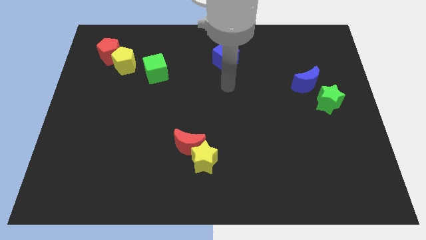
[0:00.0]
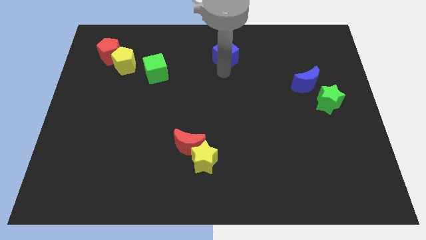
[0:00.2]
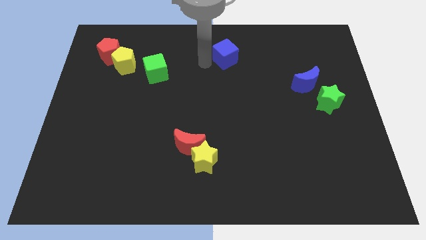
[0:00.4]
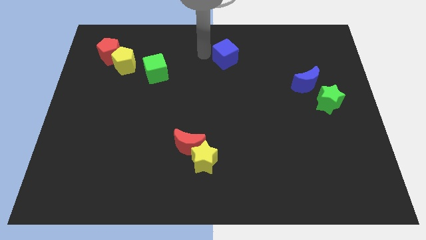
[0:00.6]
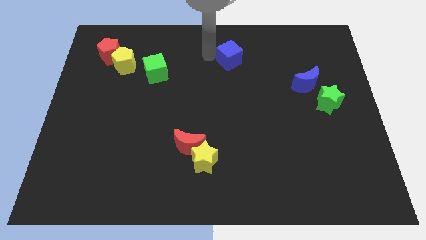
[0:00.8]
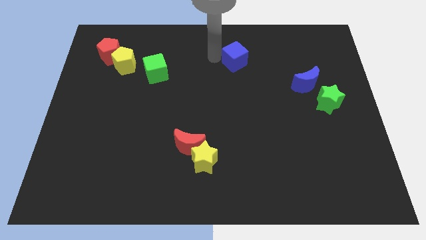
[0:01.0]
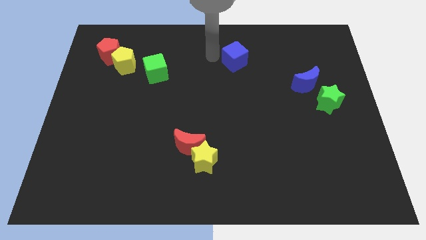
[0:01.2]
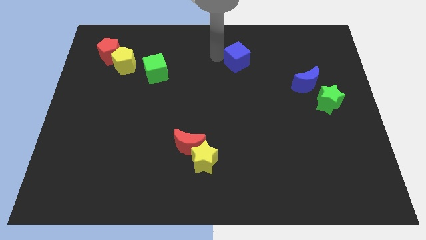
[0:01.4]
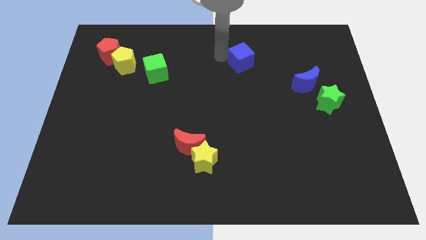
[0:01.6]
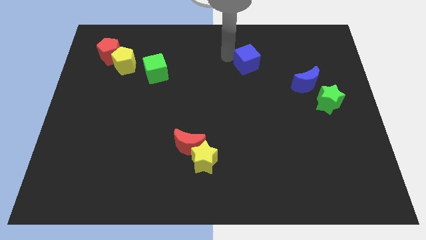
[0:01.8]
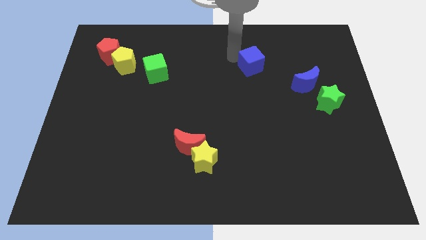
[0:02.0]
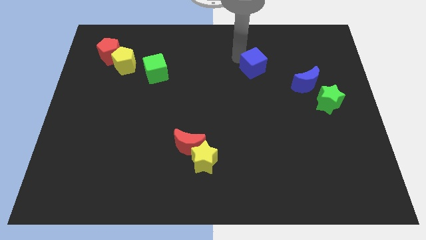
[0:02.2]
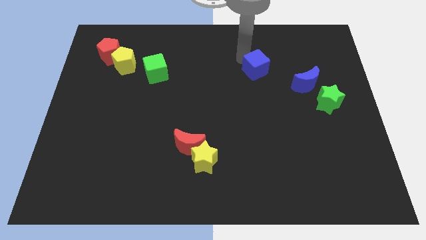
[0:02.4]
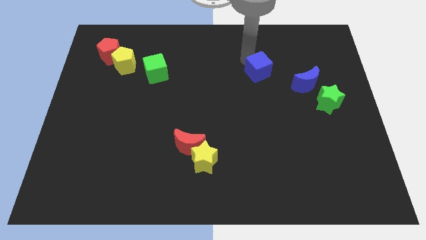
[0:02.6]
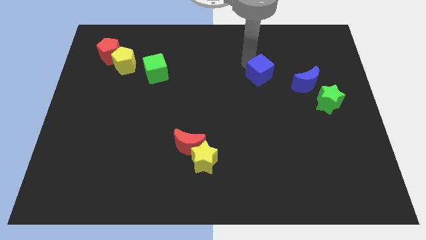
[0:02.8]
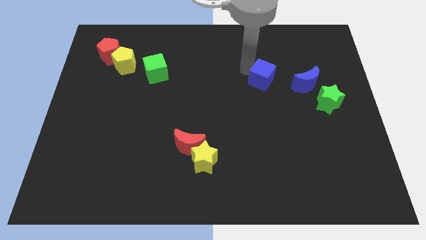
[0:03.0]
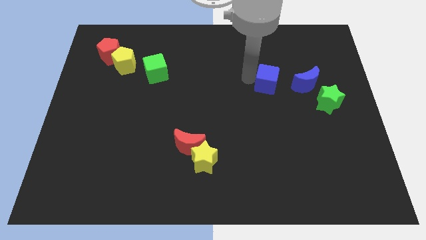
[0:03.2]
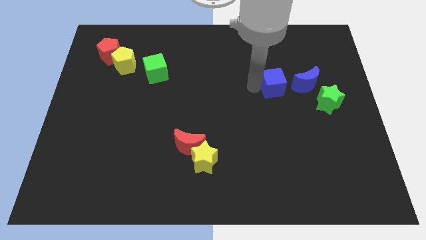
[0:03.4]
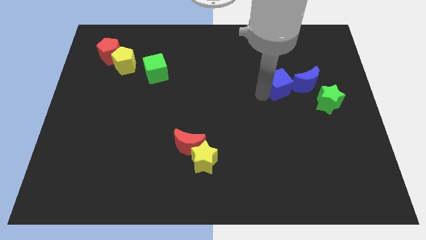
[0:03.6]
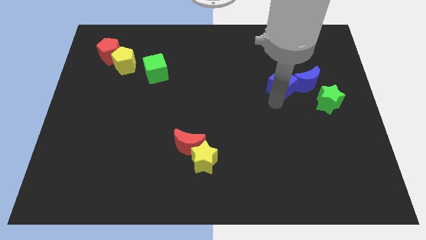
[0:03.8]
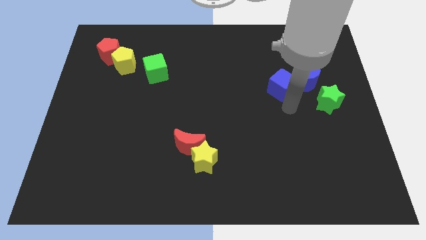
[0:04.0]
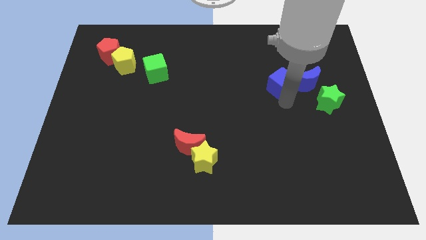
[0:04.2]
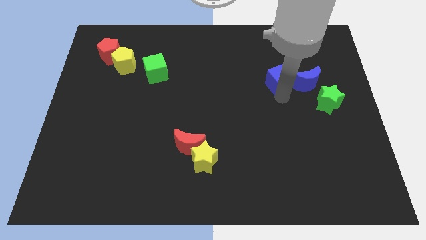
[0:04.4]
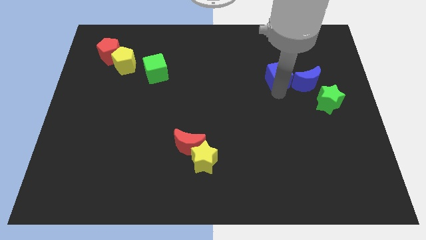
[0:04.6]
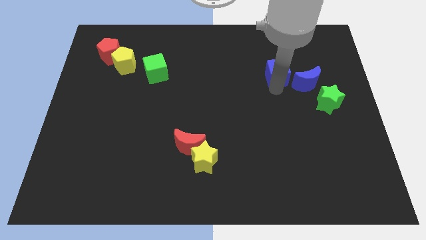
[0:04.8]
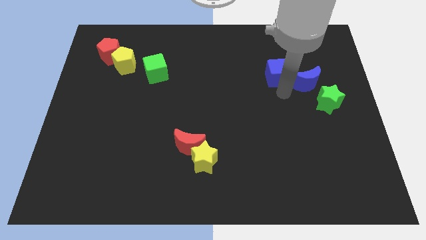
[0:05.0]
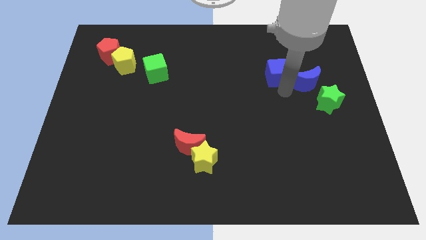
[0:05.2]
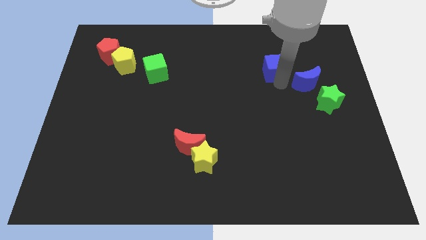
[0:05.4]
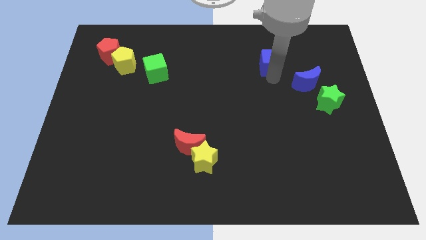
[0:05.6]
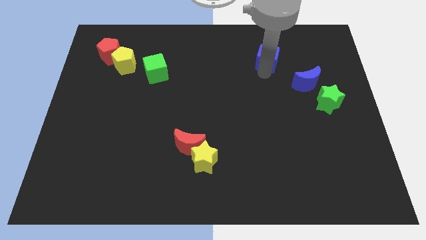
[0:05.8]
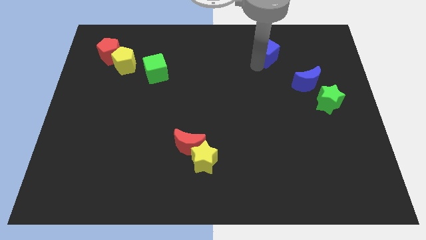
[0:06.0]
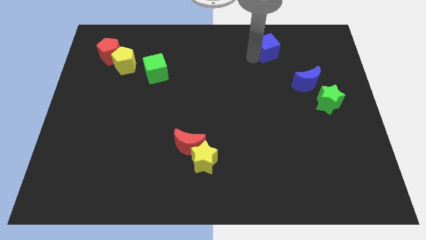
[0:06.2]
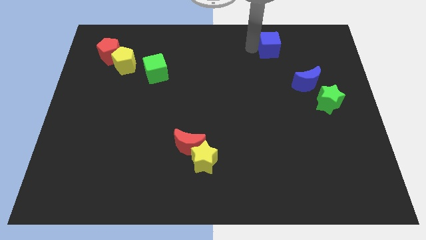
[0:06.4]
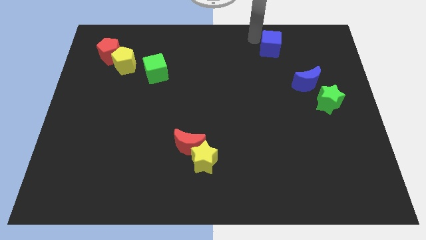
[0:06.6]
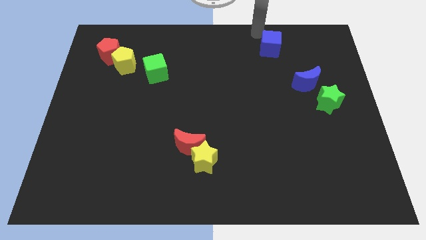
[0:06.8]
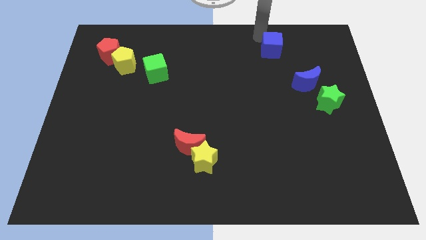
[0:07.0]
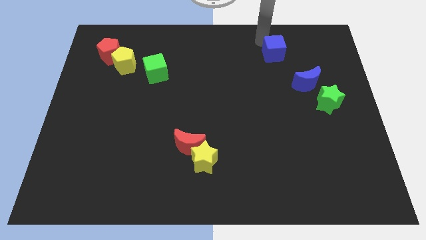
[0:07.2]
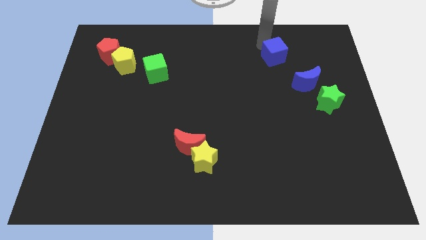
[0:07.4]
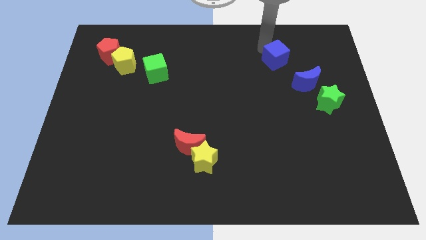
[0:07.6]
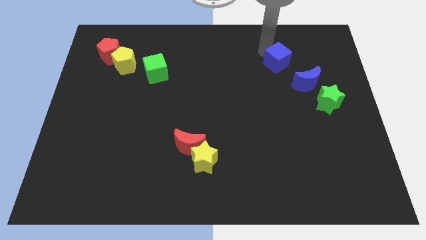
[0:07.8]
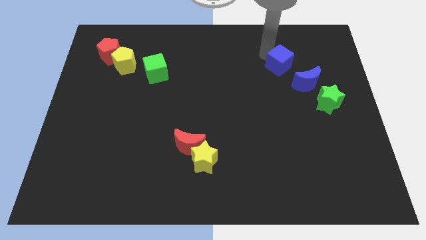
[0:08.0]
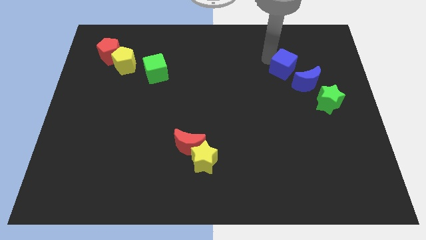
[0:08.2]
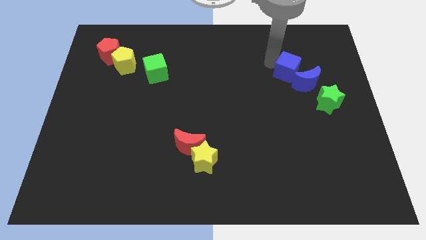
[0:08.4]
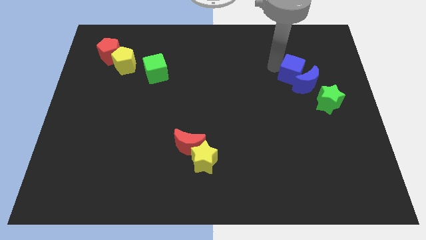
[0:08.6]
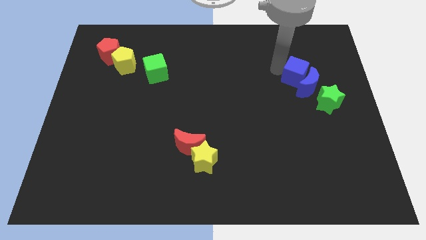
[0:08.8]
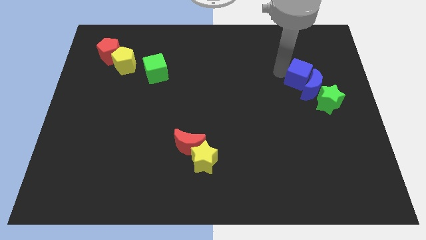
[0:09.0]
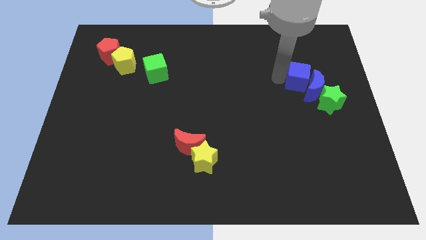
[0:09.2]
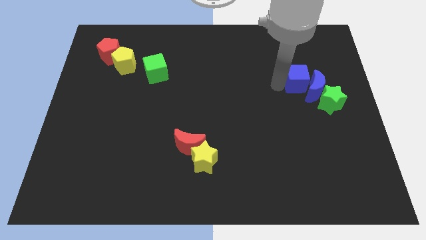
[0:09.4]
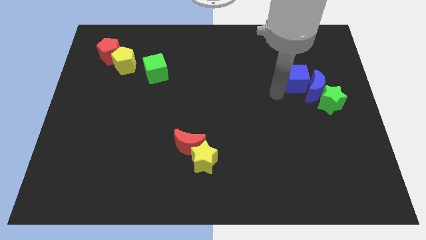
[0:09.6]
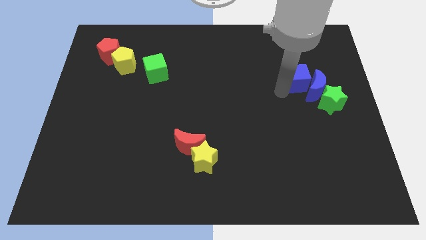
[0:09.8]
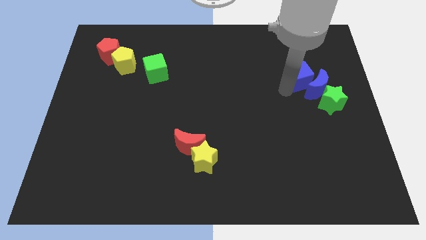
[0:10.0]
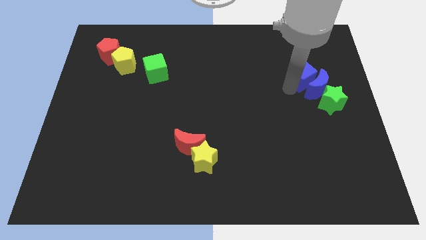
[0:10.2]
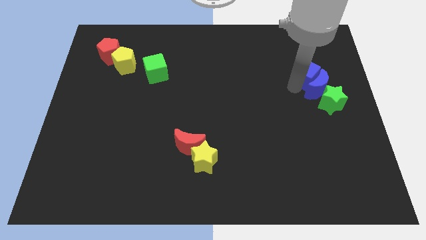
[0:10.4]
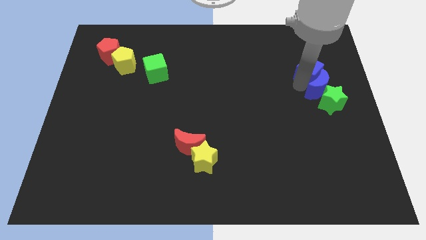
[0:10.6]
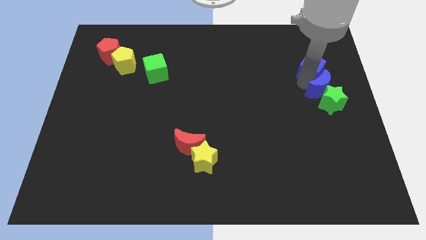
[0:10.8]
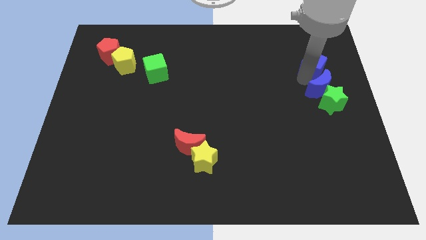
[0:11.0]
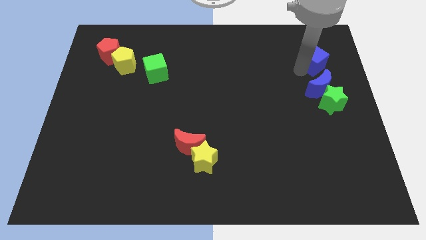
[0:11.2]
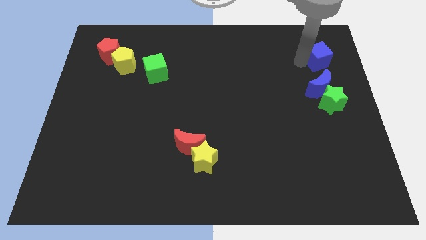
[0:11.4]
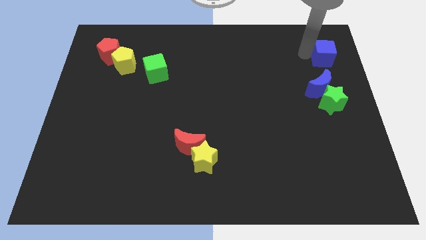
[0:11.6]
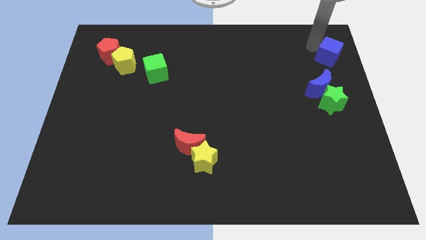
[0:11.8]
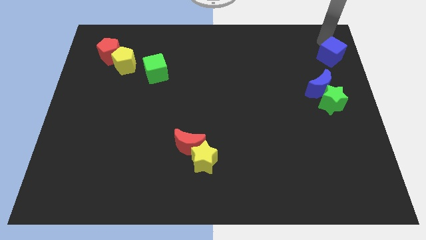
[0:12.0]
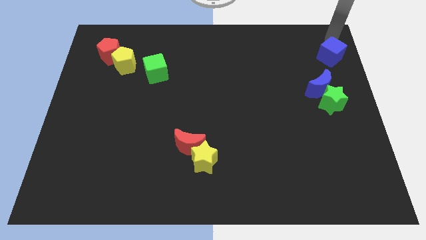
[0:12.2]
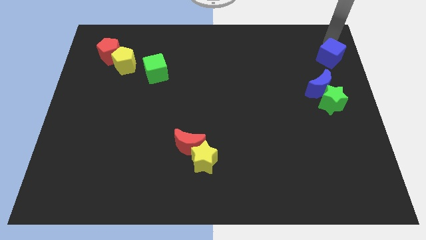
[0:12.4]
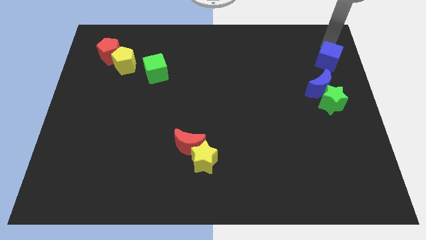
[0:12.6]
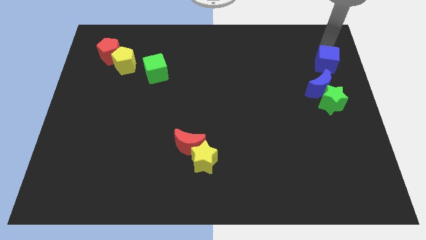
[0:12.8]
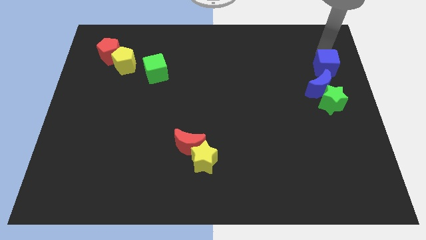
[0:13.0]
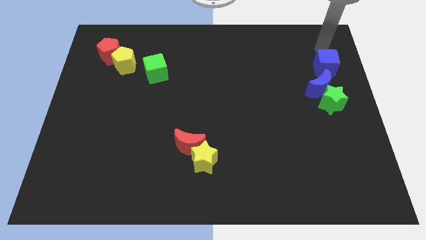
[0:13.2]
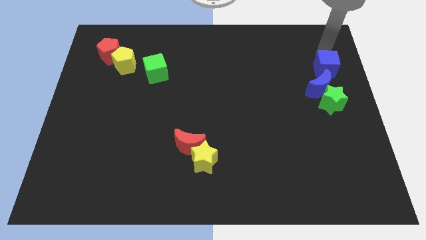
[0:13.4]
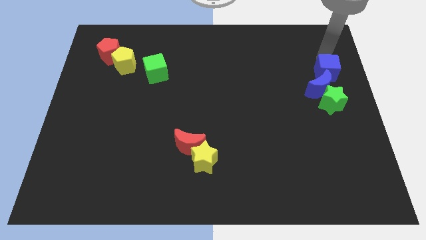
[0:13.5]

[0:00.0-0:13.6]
slide the blue cube to the right side of the board
